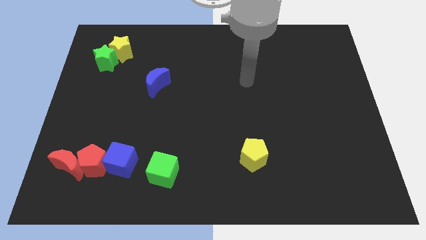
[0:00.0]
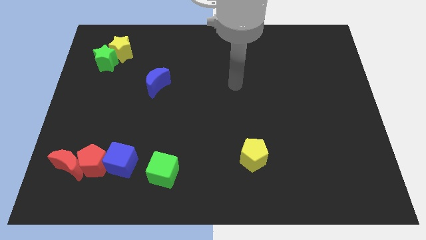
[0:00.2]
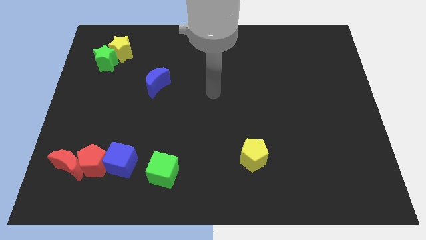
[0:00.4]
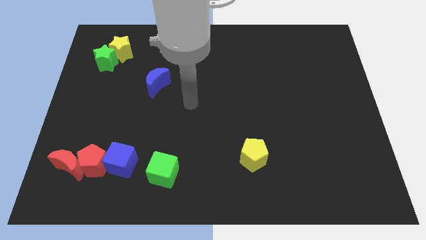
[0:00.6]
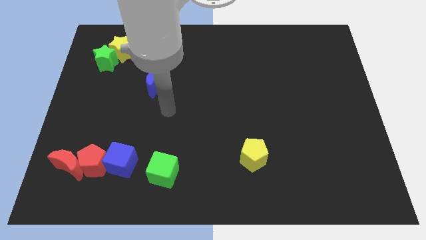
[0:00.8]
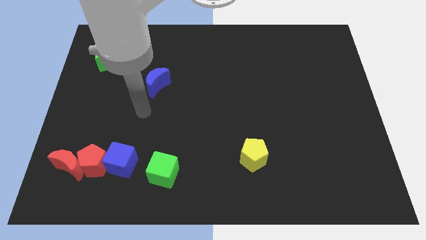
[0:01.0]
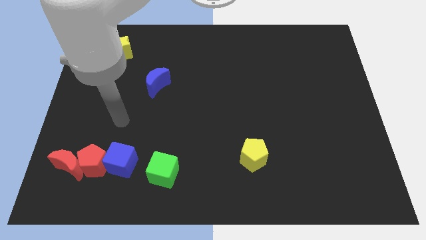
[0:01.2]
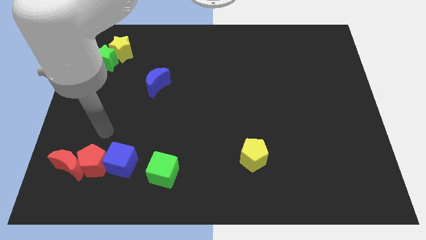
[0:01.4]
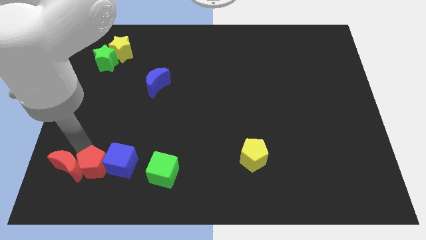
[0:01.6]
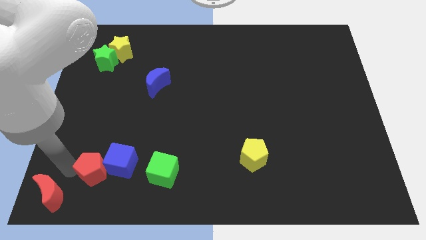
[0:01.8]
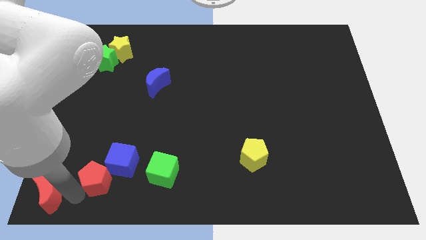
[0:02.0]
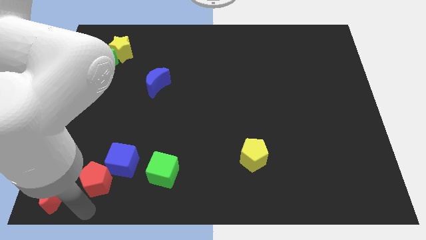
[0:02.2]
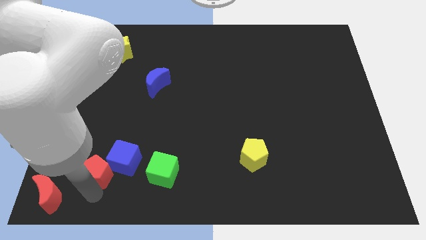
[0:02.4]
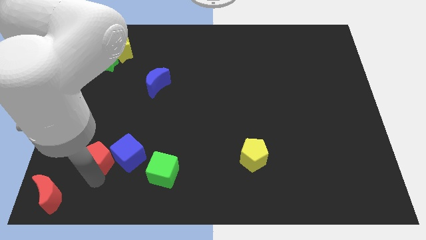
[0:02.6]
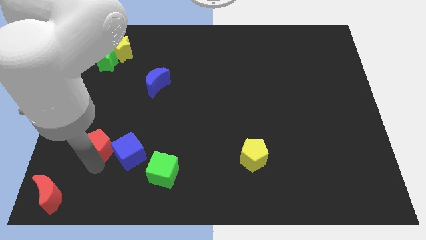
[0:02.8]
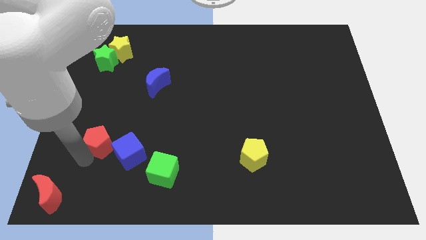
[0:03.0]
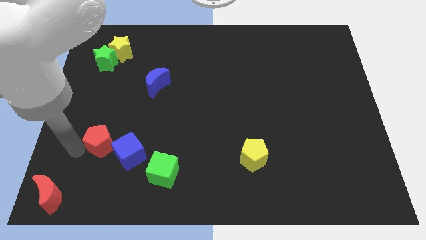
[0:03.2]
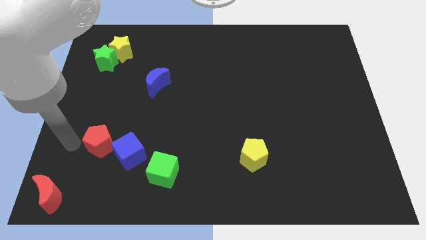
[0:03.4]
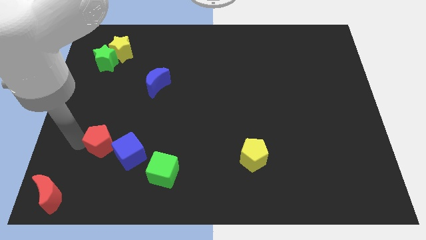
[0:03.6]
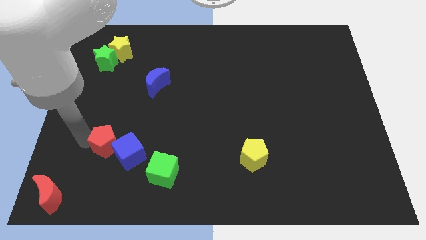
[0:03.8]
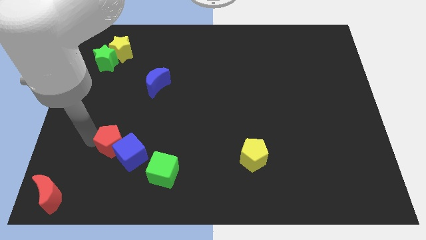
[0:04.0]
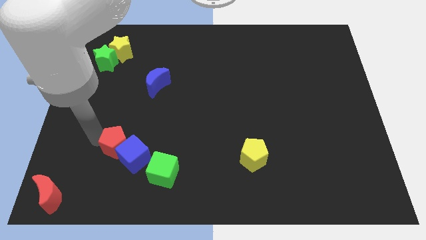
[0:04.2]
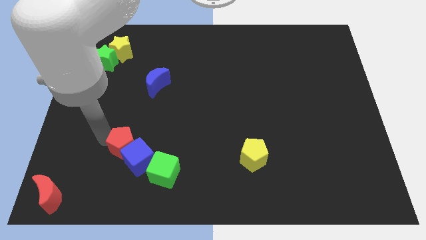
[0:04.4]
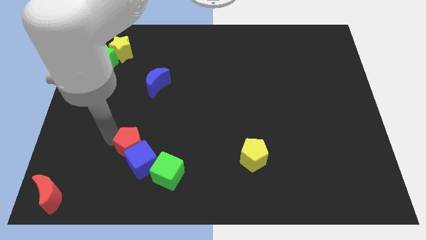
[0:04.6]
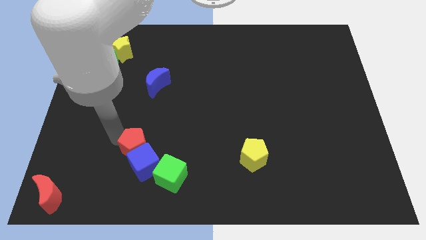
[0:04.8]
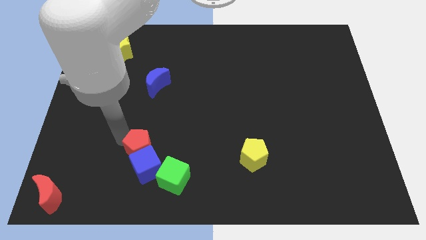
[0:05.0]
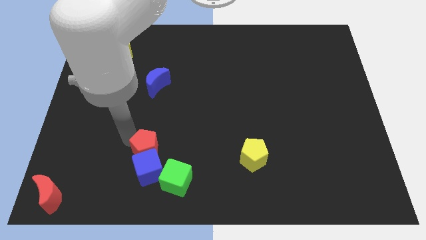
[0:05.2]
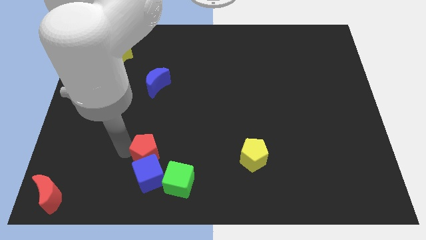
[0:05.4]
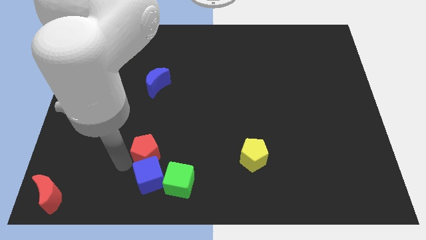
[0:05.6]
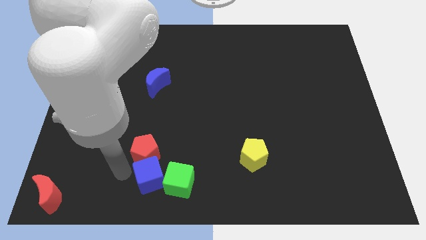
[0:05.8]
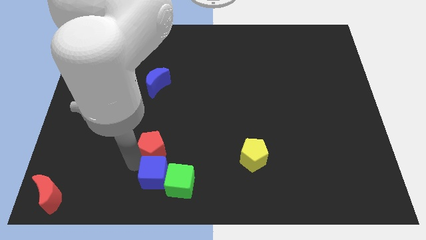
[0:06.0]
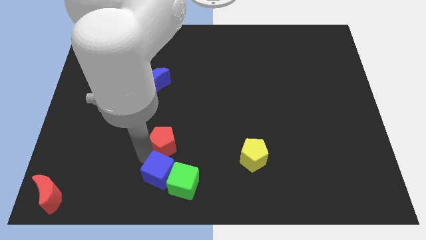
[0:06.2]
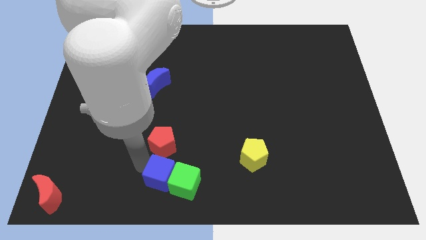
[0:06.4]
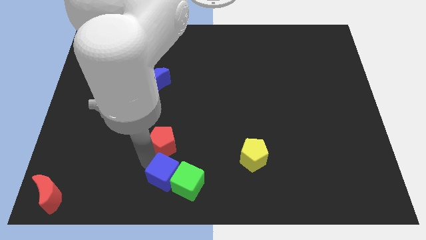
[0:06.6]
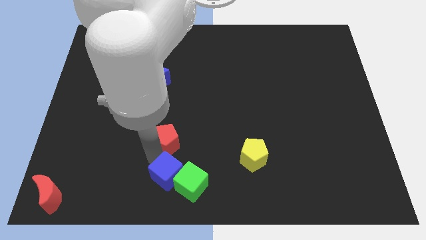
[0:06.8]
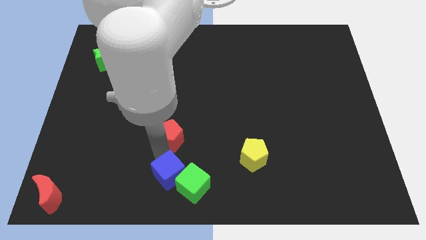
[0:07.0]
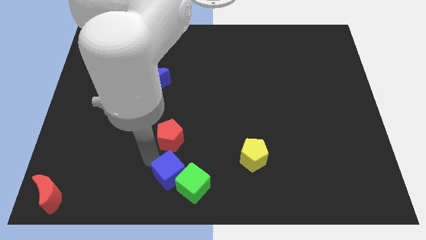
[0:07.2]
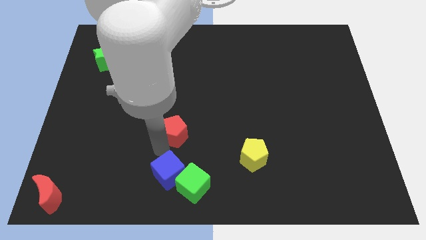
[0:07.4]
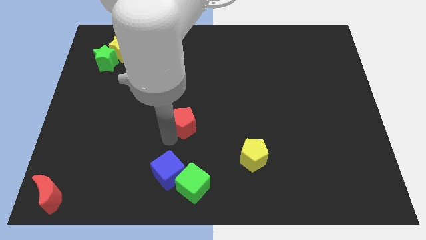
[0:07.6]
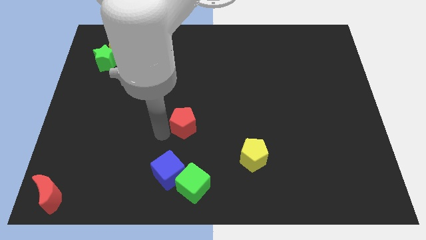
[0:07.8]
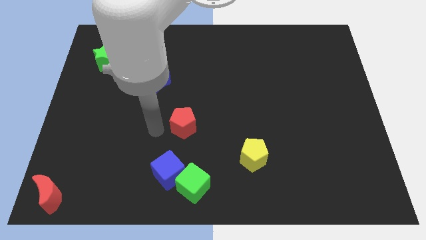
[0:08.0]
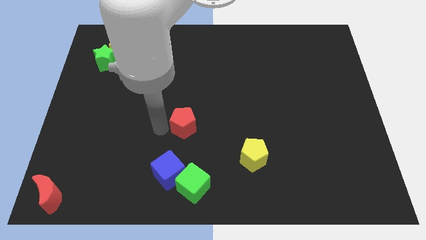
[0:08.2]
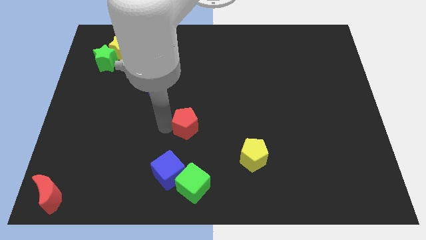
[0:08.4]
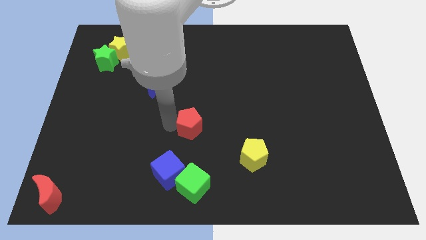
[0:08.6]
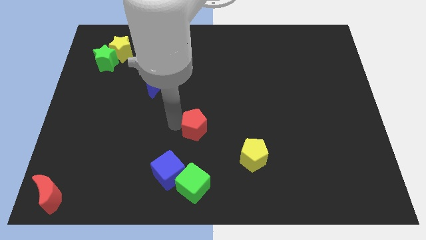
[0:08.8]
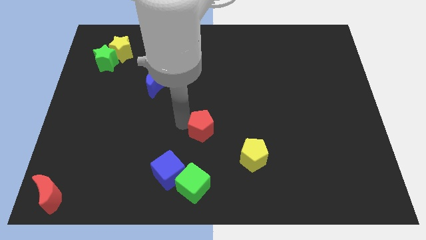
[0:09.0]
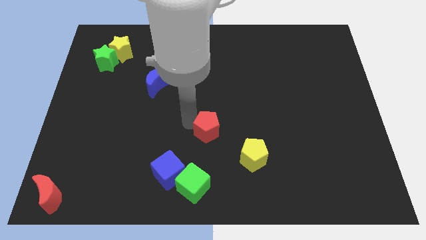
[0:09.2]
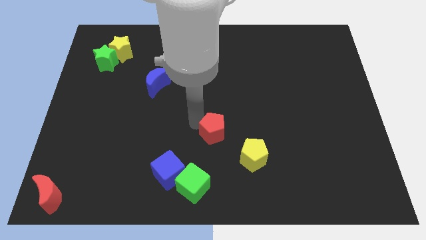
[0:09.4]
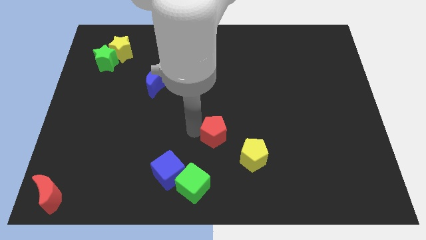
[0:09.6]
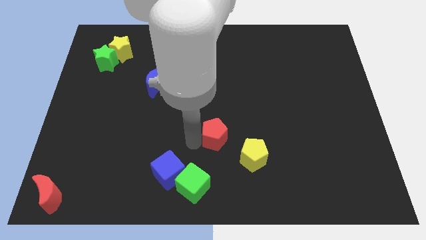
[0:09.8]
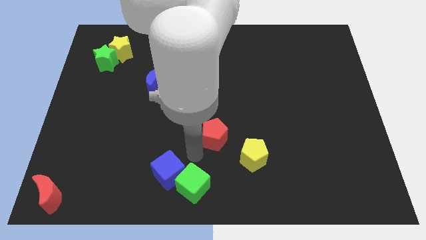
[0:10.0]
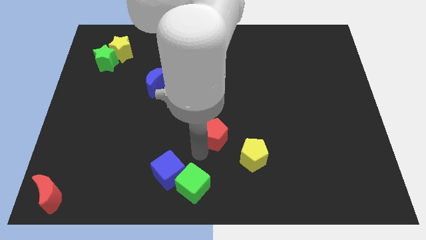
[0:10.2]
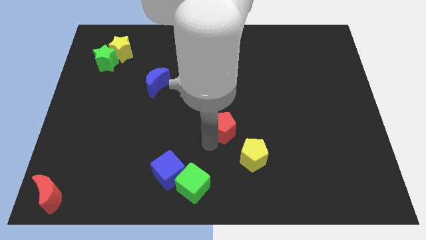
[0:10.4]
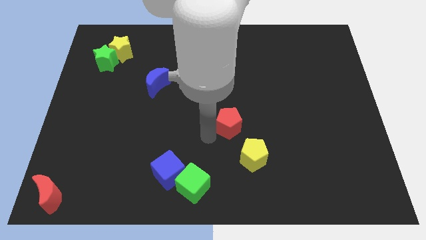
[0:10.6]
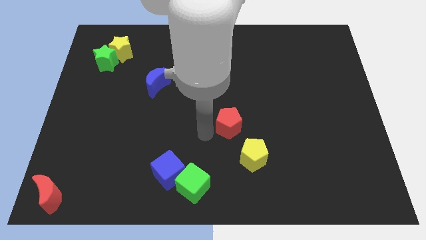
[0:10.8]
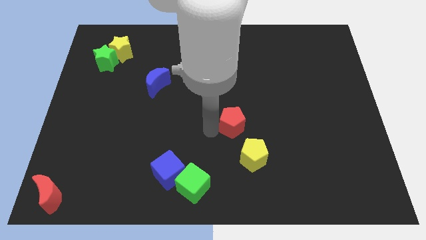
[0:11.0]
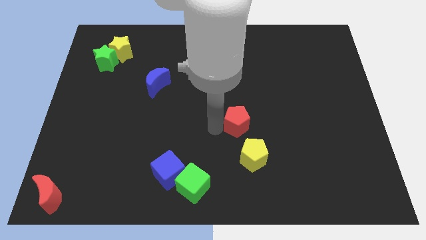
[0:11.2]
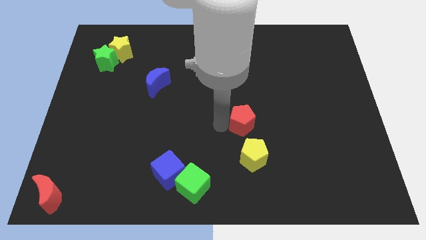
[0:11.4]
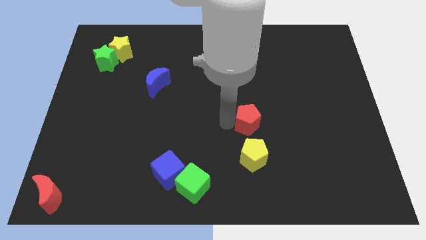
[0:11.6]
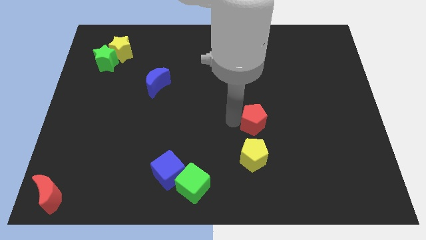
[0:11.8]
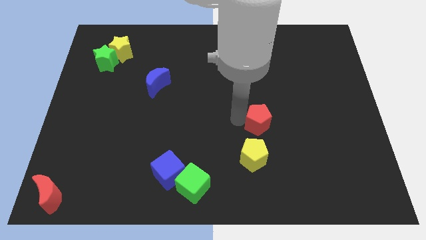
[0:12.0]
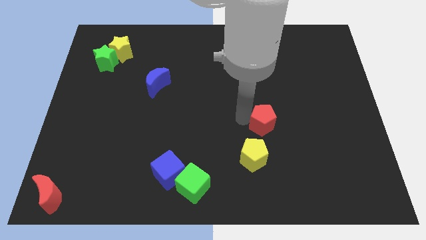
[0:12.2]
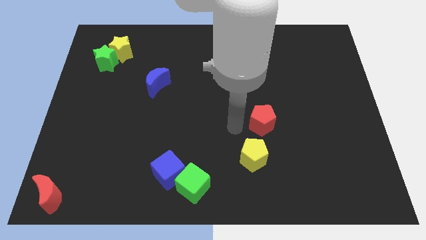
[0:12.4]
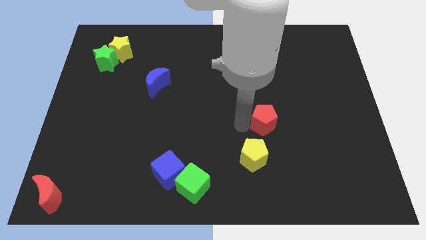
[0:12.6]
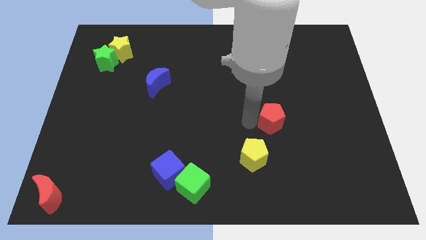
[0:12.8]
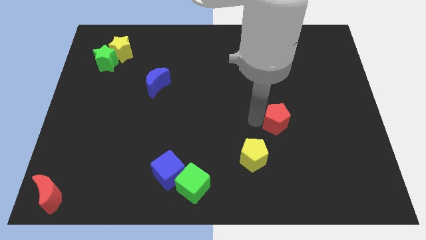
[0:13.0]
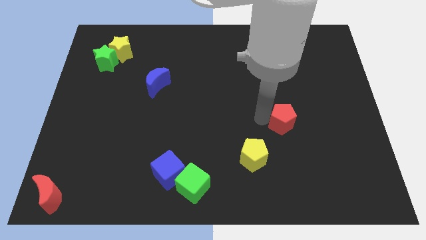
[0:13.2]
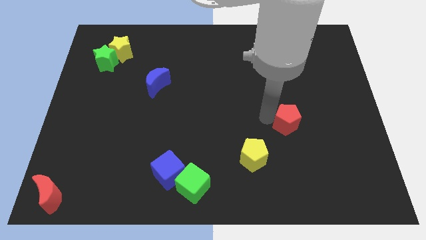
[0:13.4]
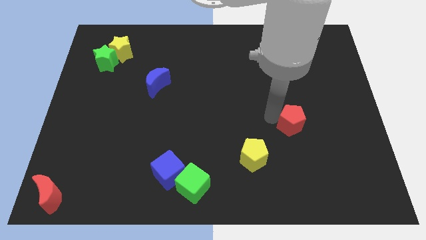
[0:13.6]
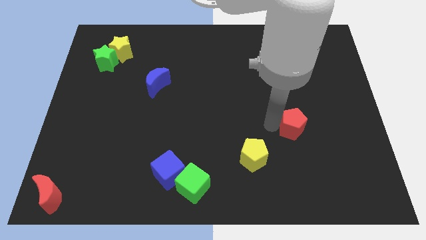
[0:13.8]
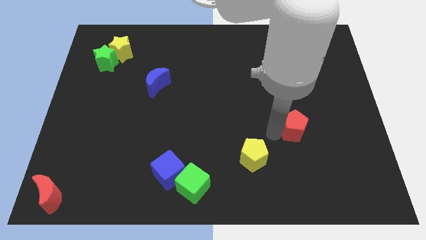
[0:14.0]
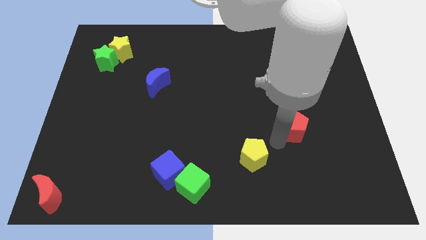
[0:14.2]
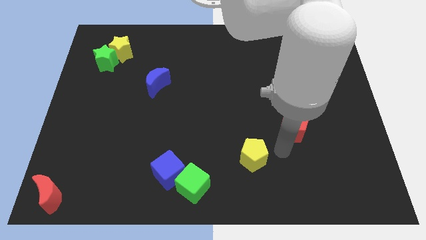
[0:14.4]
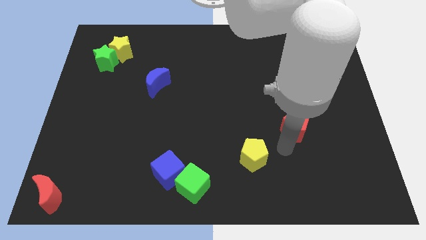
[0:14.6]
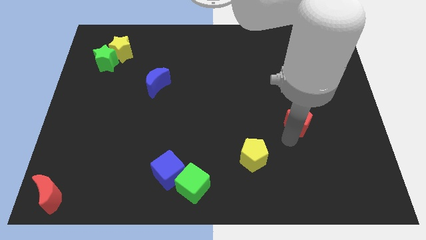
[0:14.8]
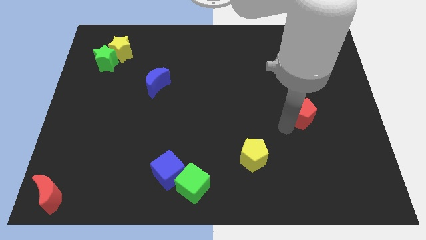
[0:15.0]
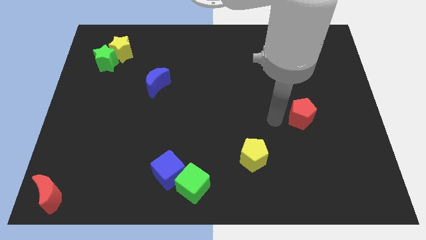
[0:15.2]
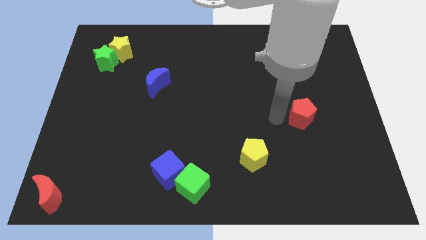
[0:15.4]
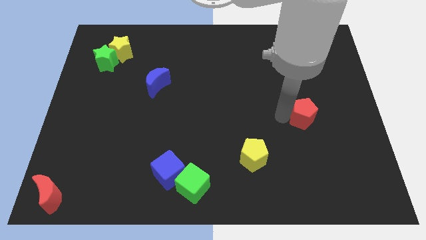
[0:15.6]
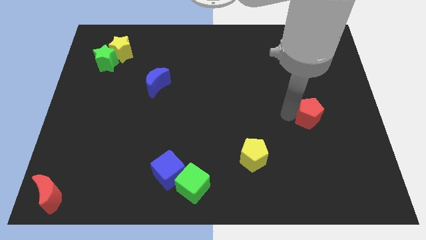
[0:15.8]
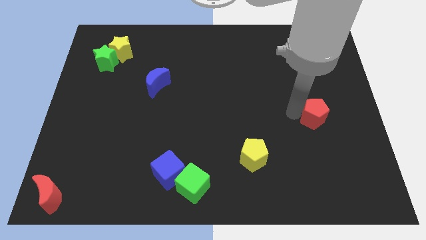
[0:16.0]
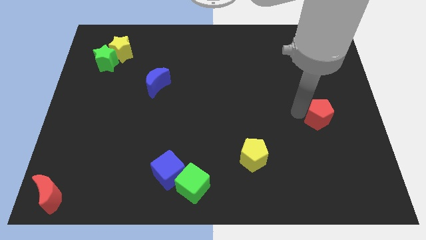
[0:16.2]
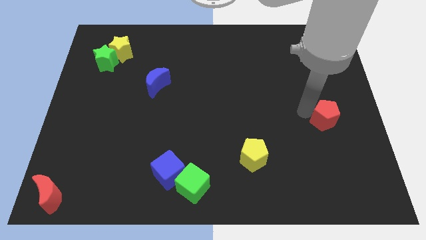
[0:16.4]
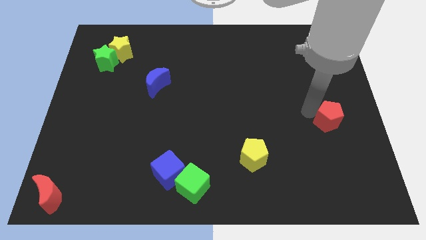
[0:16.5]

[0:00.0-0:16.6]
put the red pentagon to the right side
